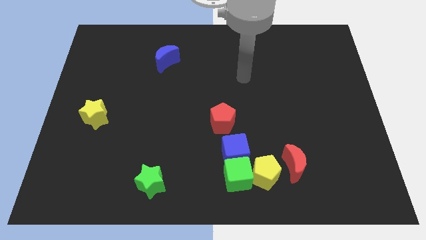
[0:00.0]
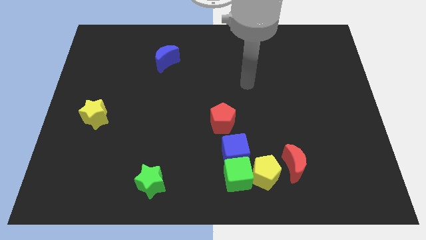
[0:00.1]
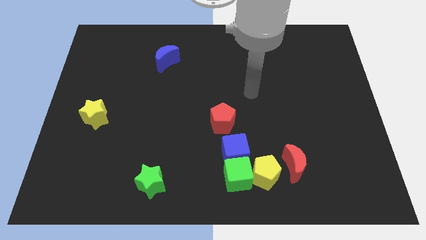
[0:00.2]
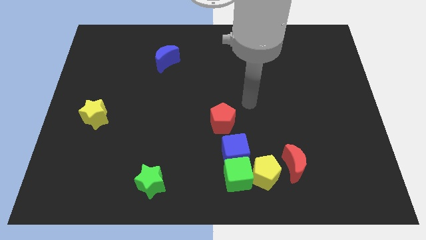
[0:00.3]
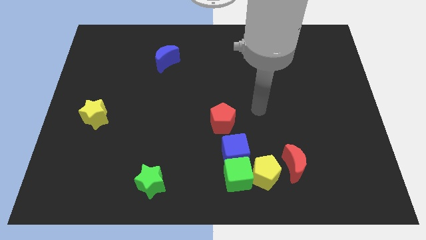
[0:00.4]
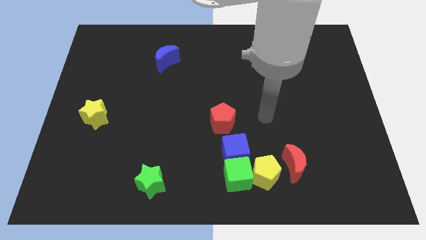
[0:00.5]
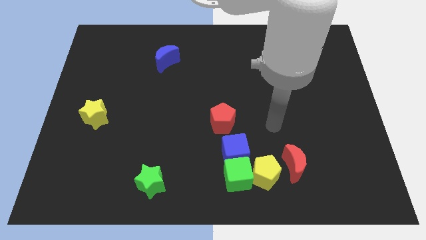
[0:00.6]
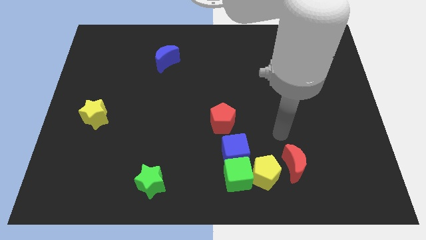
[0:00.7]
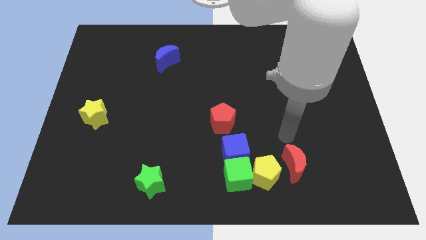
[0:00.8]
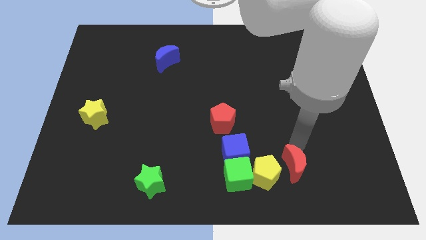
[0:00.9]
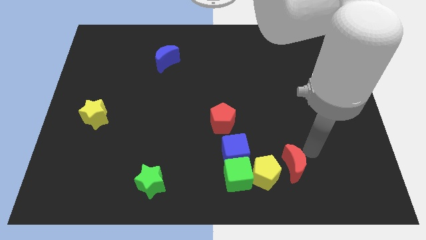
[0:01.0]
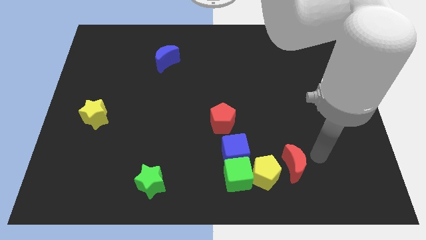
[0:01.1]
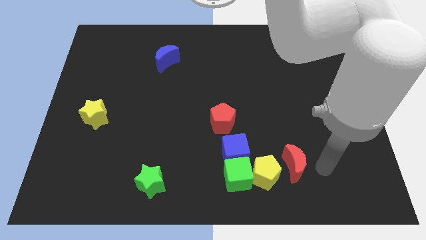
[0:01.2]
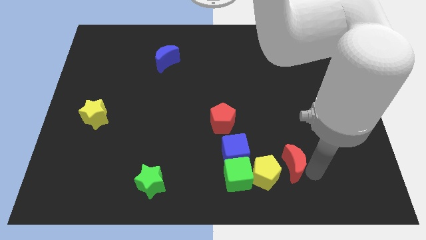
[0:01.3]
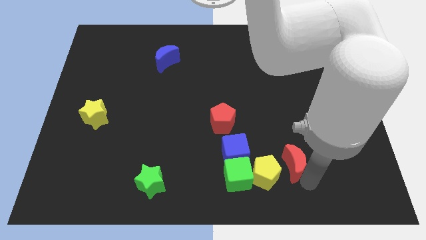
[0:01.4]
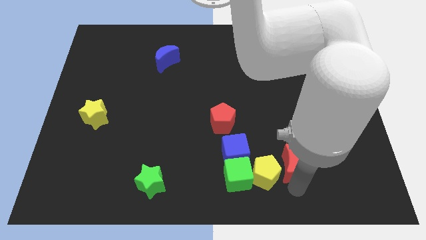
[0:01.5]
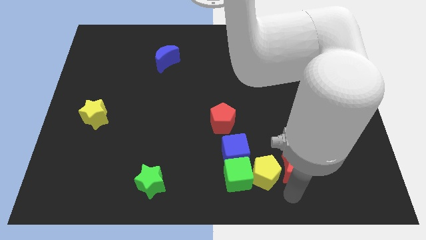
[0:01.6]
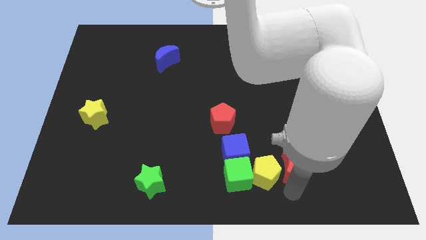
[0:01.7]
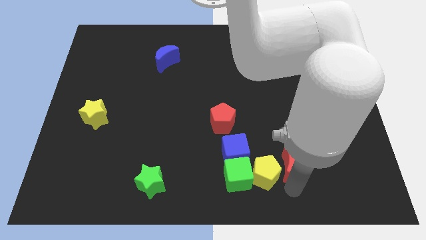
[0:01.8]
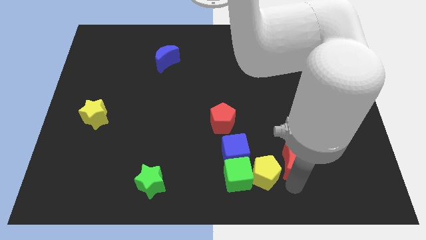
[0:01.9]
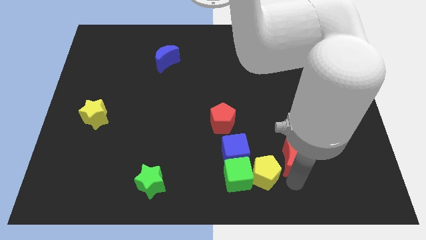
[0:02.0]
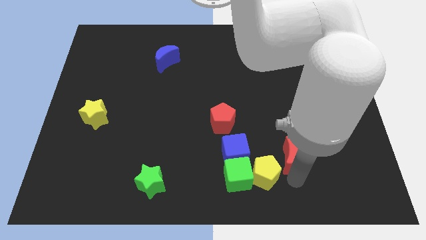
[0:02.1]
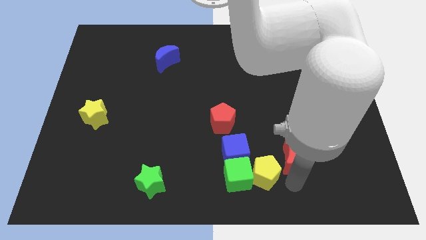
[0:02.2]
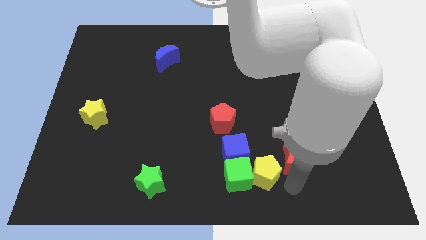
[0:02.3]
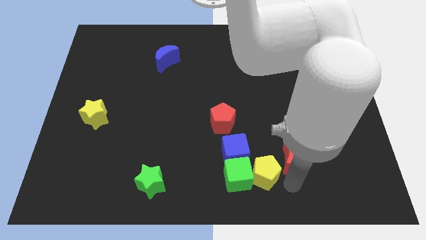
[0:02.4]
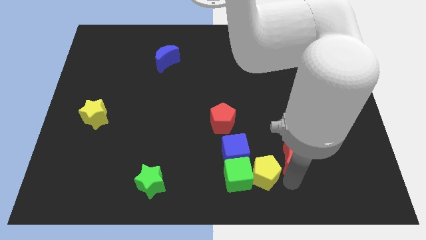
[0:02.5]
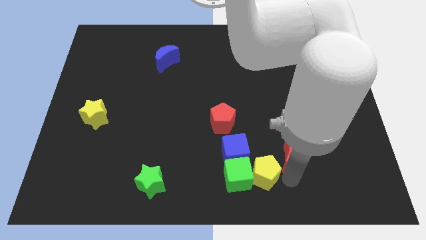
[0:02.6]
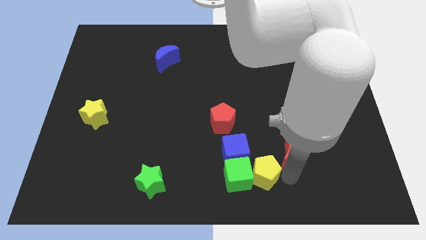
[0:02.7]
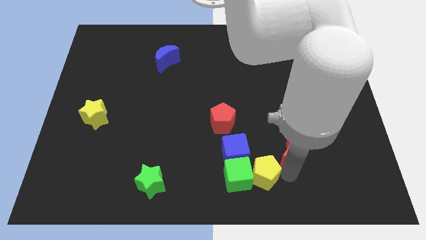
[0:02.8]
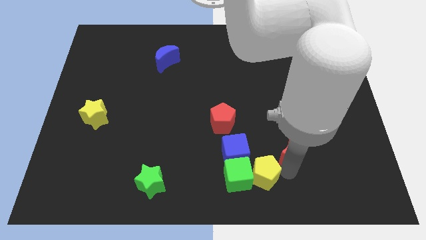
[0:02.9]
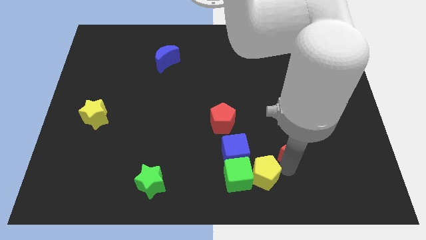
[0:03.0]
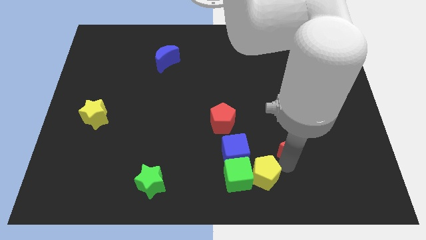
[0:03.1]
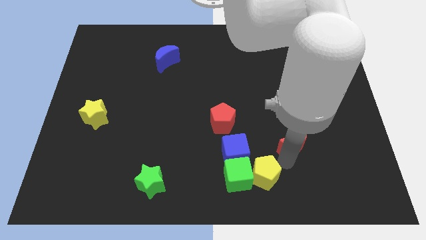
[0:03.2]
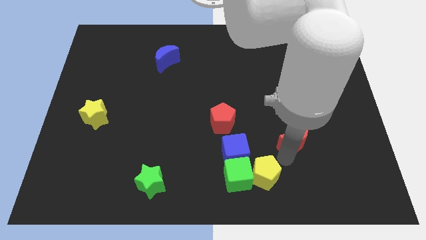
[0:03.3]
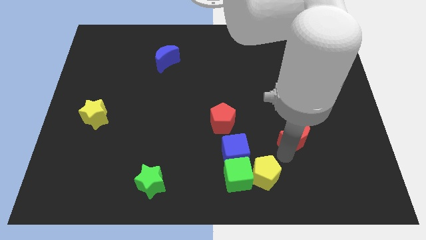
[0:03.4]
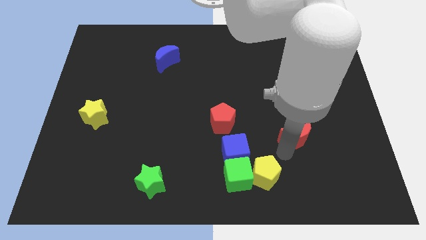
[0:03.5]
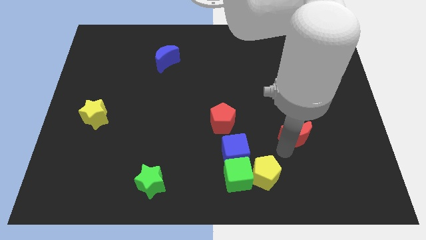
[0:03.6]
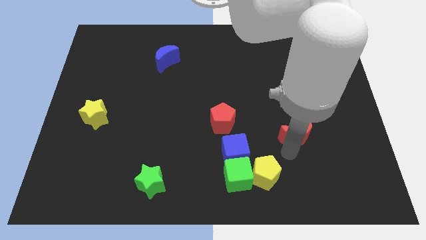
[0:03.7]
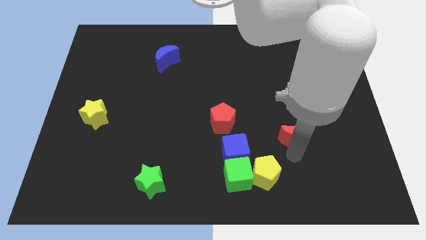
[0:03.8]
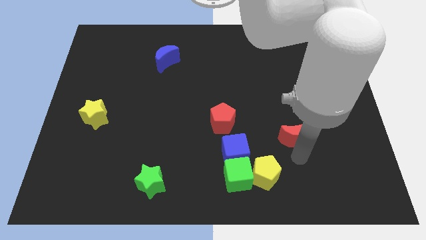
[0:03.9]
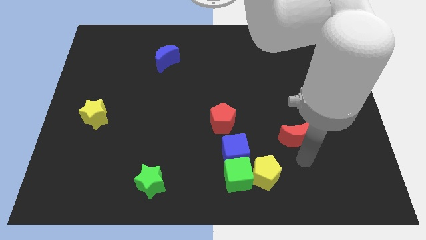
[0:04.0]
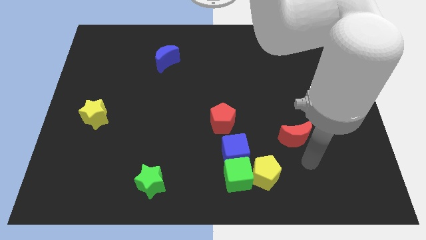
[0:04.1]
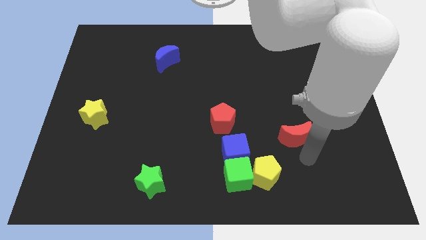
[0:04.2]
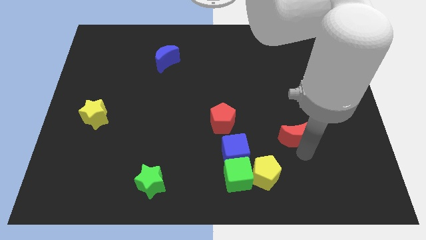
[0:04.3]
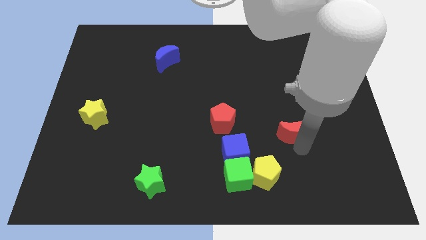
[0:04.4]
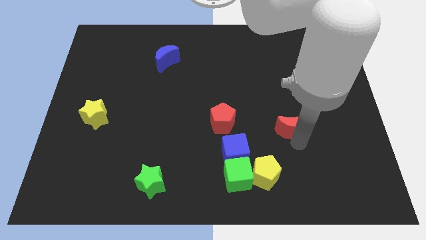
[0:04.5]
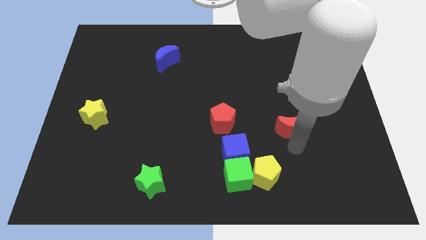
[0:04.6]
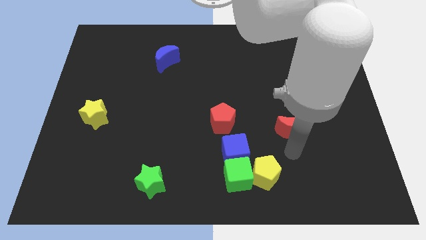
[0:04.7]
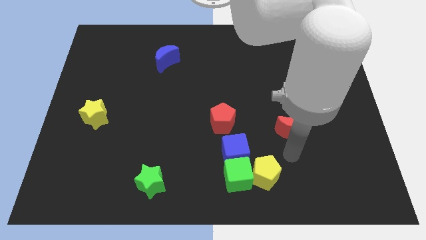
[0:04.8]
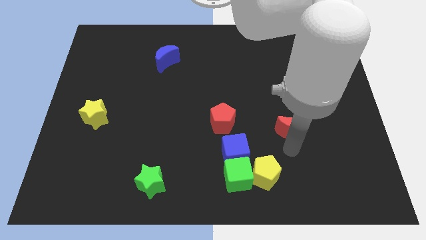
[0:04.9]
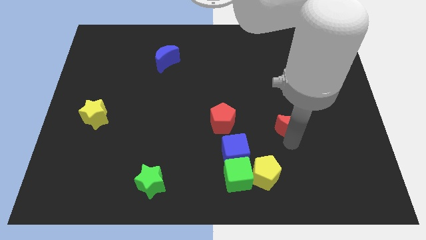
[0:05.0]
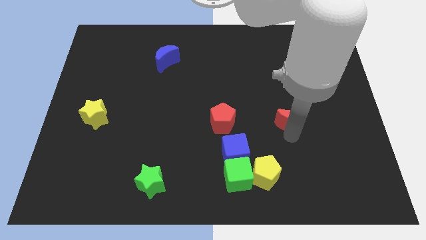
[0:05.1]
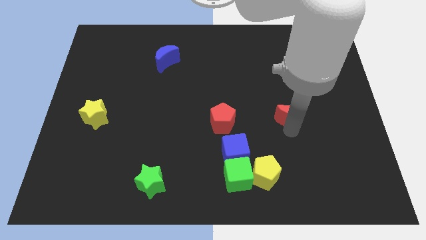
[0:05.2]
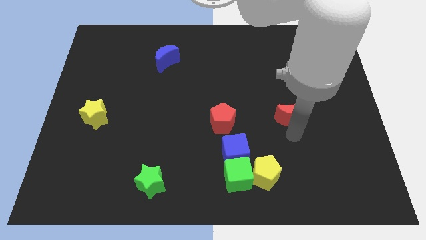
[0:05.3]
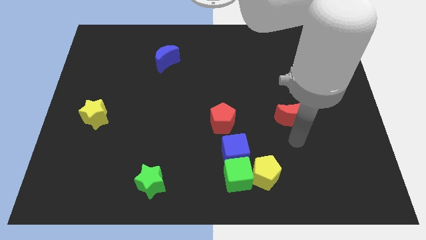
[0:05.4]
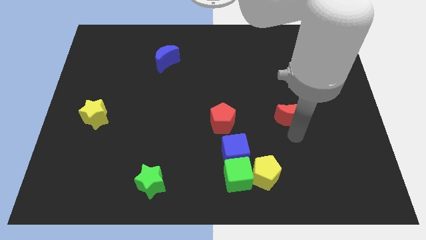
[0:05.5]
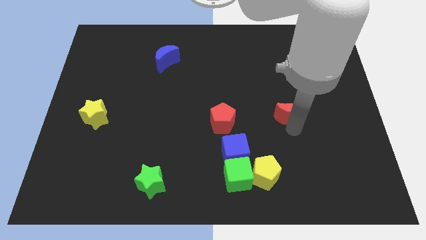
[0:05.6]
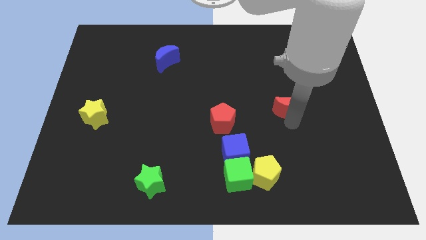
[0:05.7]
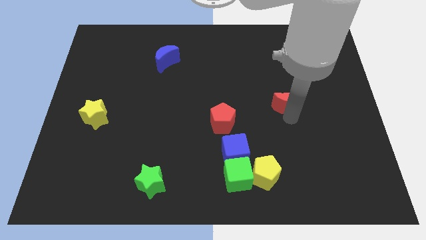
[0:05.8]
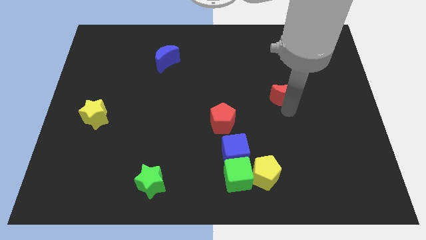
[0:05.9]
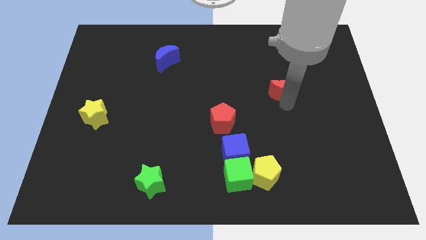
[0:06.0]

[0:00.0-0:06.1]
push the red moon upwards

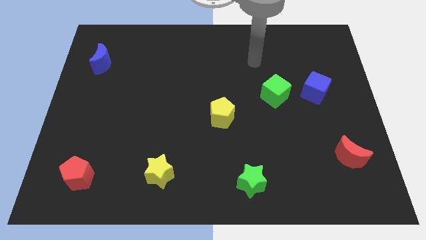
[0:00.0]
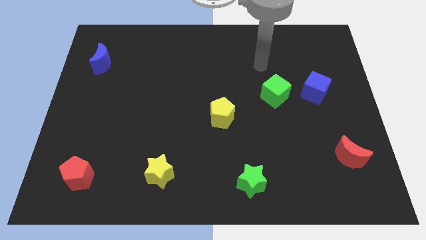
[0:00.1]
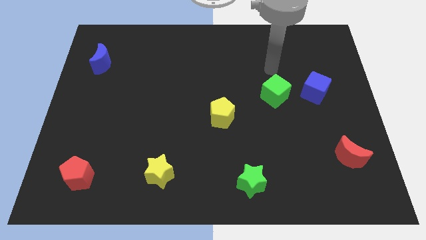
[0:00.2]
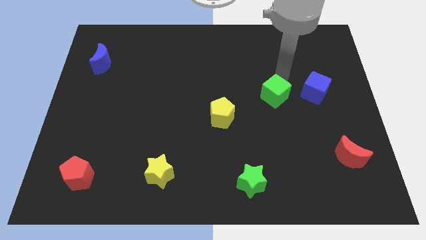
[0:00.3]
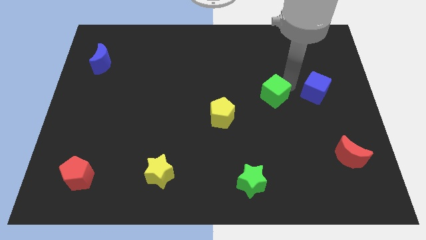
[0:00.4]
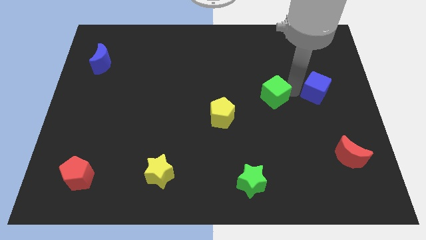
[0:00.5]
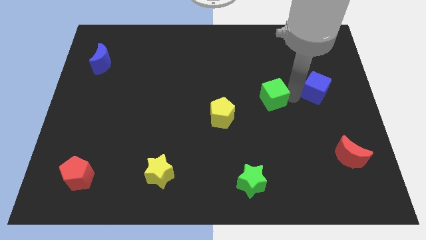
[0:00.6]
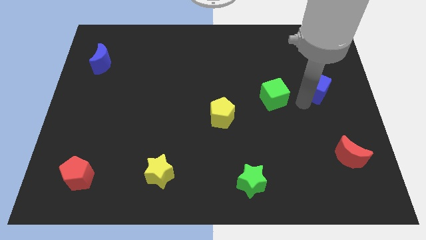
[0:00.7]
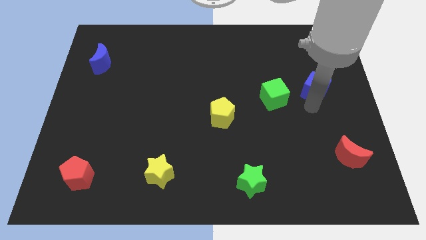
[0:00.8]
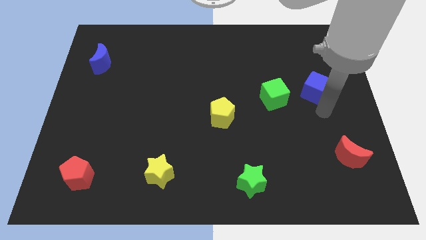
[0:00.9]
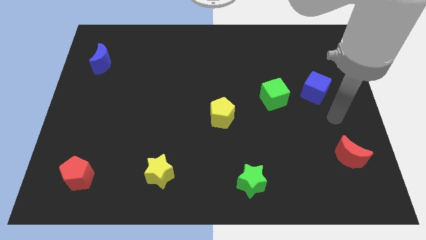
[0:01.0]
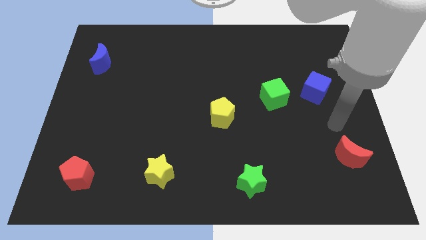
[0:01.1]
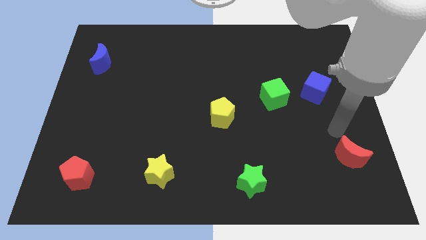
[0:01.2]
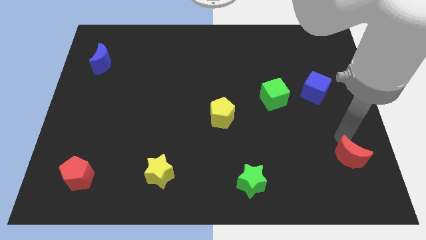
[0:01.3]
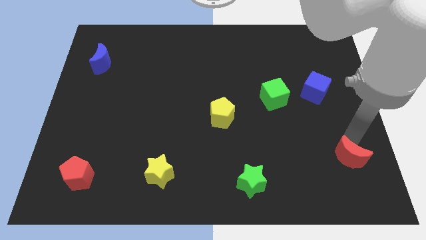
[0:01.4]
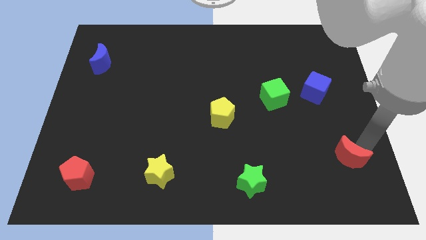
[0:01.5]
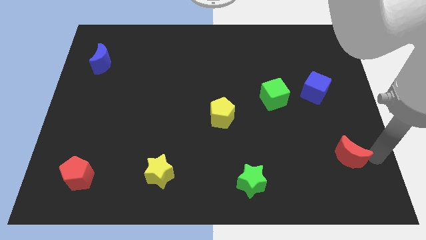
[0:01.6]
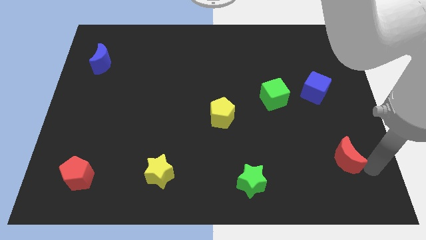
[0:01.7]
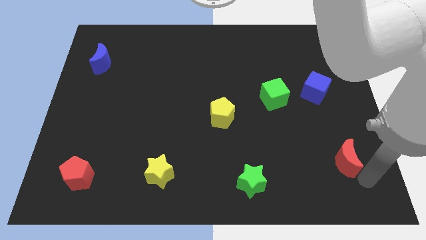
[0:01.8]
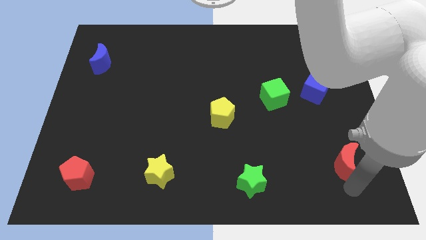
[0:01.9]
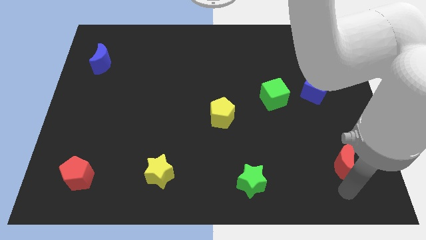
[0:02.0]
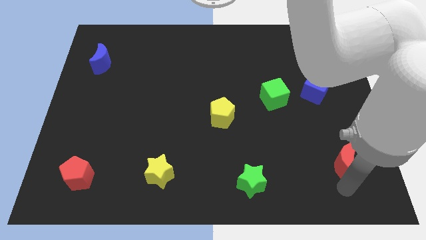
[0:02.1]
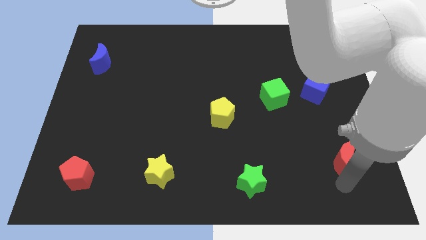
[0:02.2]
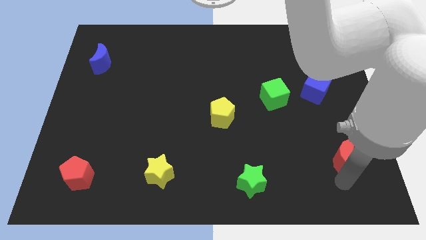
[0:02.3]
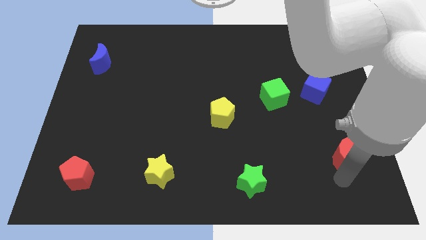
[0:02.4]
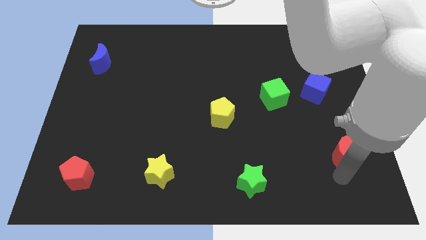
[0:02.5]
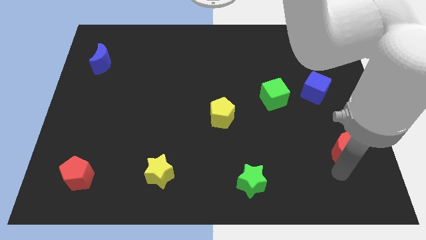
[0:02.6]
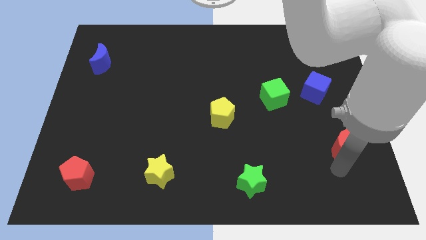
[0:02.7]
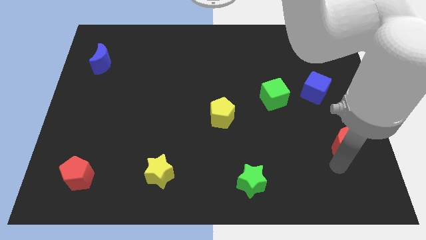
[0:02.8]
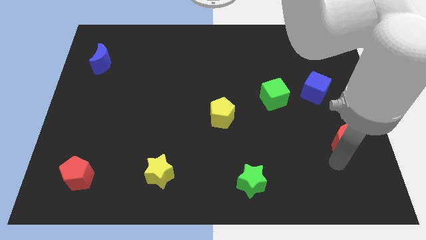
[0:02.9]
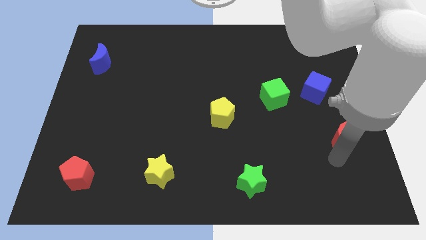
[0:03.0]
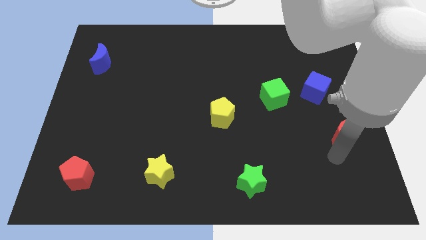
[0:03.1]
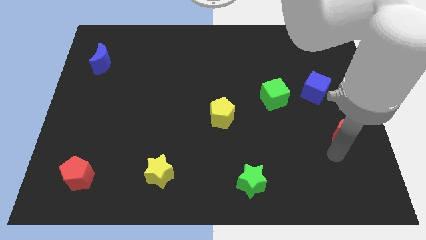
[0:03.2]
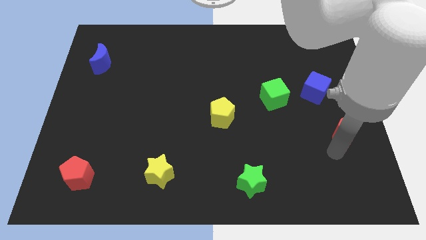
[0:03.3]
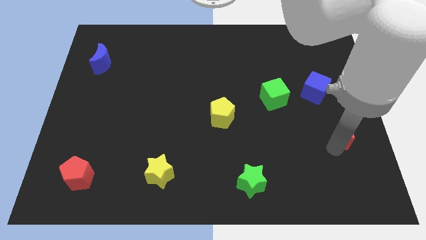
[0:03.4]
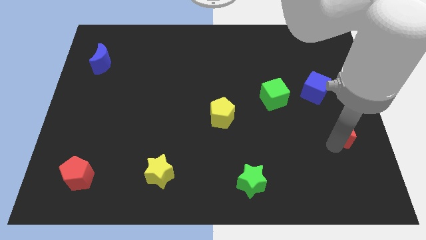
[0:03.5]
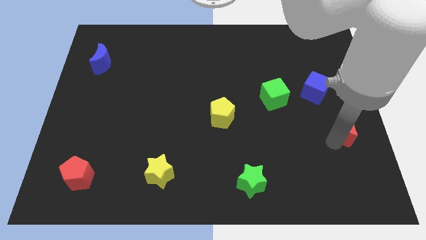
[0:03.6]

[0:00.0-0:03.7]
move the red moon a bit up
